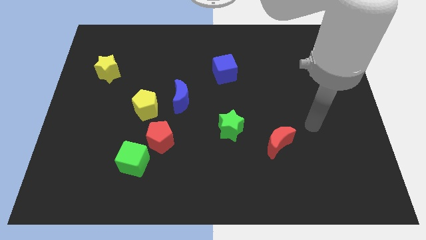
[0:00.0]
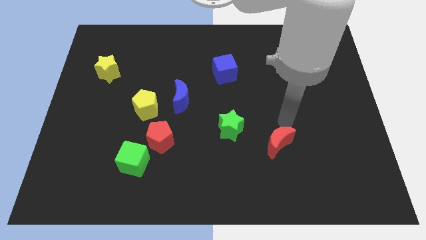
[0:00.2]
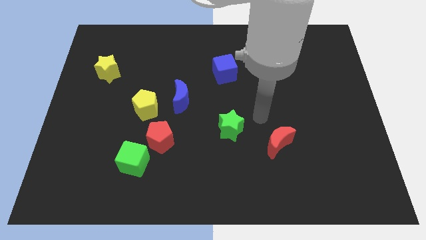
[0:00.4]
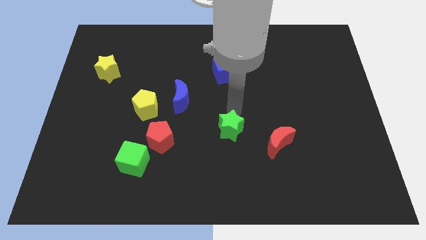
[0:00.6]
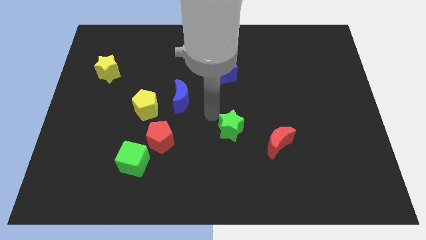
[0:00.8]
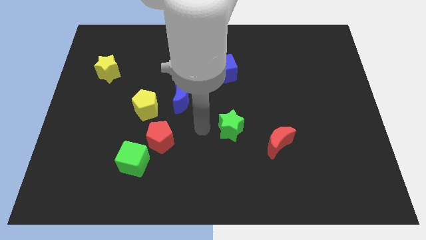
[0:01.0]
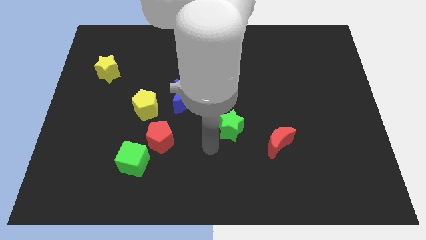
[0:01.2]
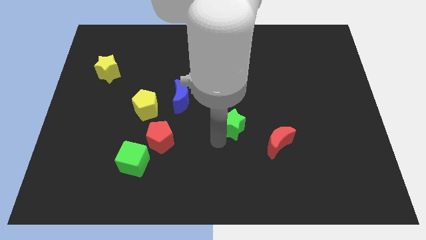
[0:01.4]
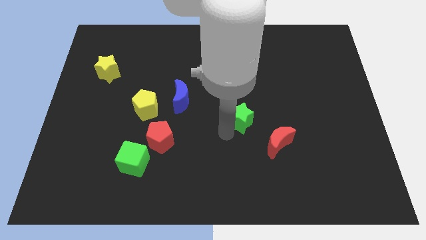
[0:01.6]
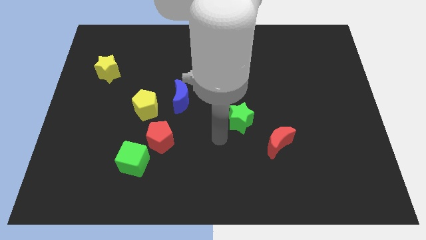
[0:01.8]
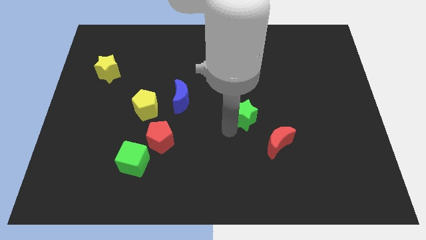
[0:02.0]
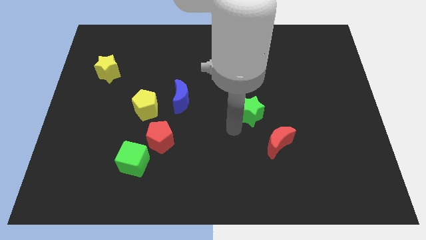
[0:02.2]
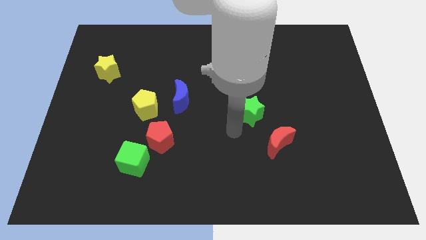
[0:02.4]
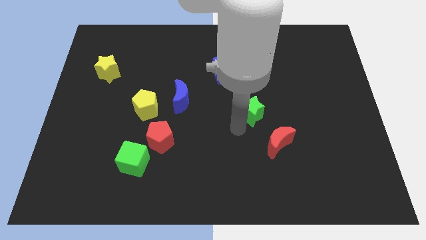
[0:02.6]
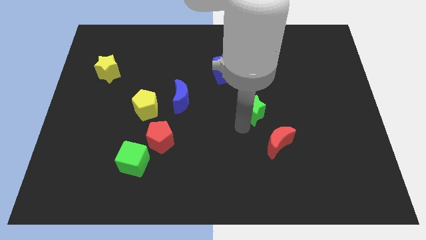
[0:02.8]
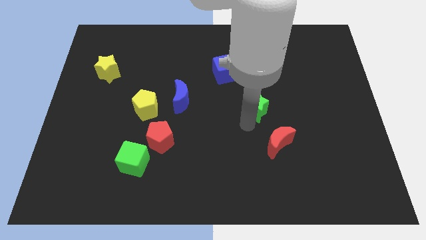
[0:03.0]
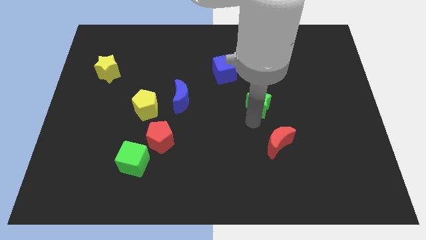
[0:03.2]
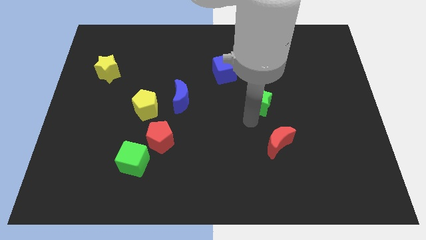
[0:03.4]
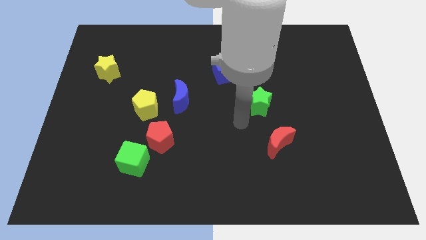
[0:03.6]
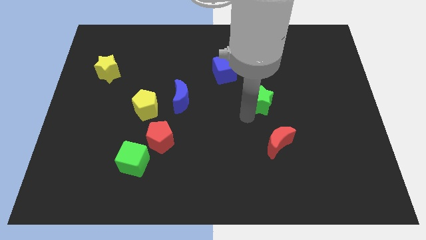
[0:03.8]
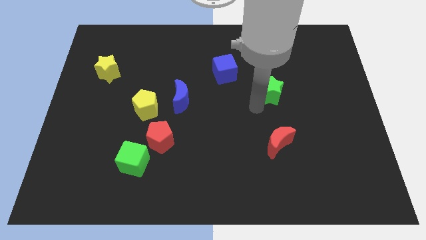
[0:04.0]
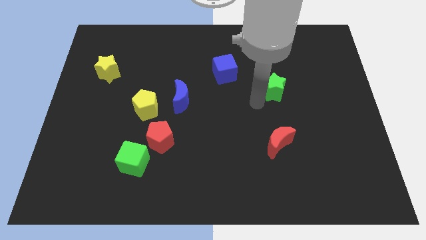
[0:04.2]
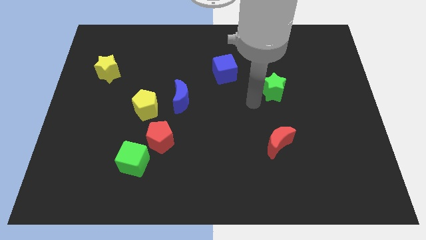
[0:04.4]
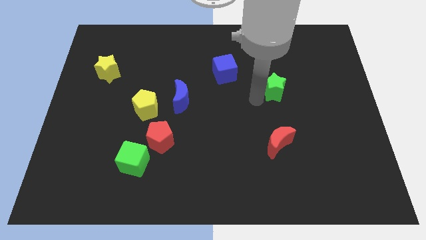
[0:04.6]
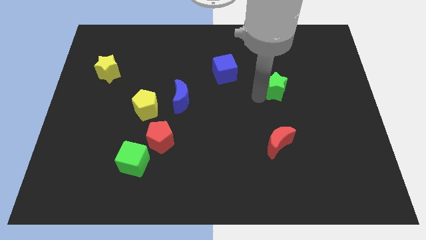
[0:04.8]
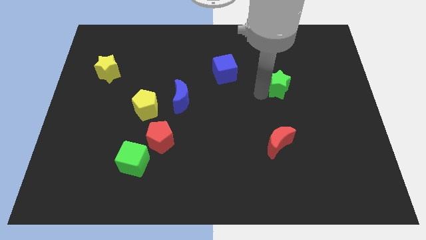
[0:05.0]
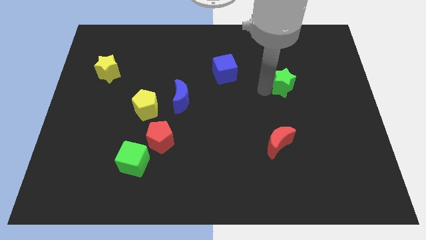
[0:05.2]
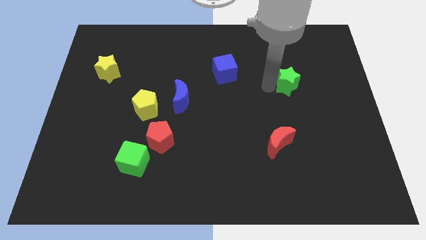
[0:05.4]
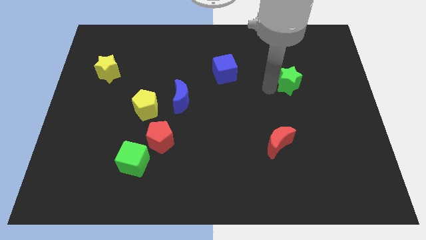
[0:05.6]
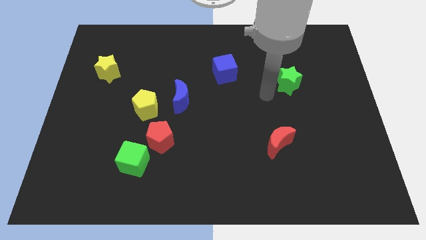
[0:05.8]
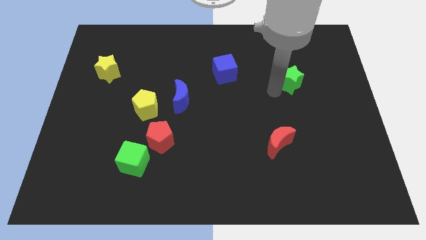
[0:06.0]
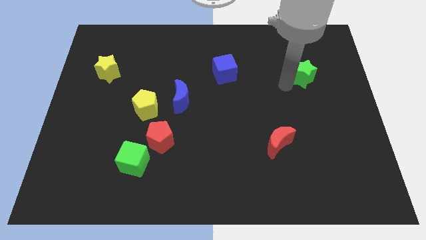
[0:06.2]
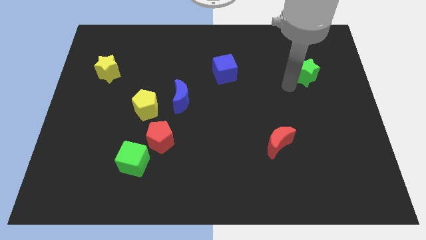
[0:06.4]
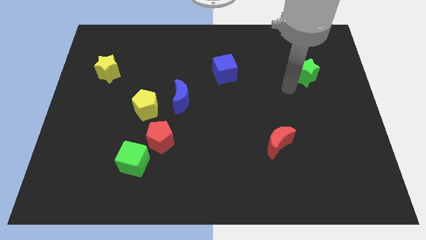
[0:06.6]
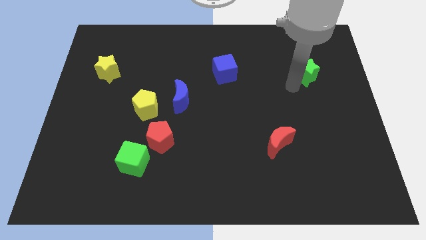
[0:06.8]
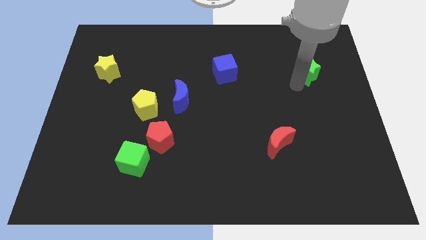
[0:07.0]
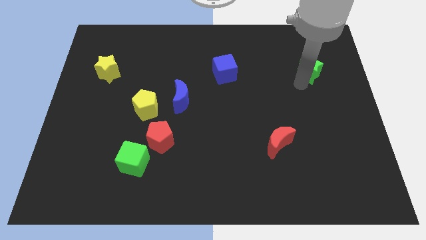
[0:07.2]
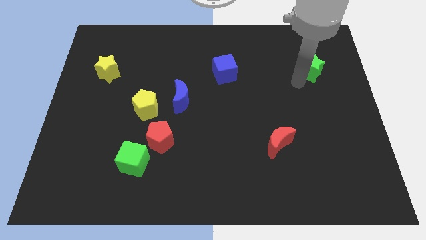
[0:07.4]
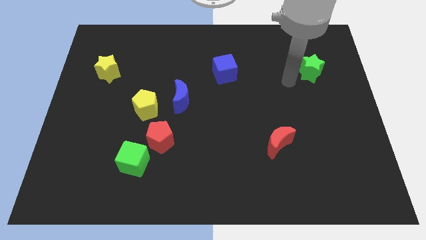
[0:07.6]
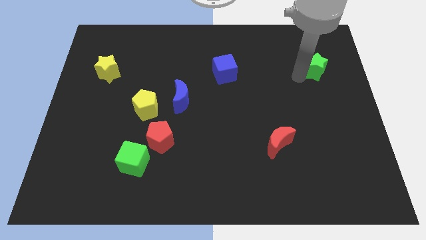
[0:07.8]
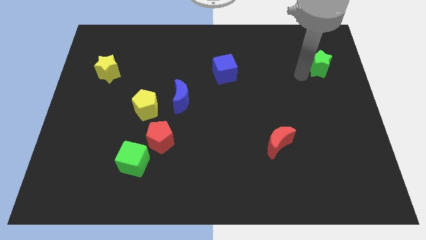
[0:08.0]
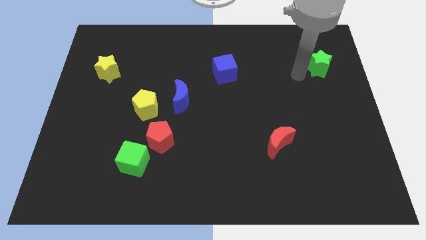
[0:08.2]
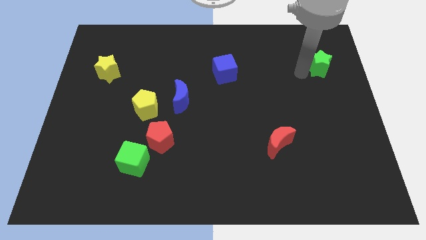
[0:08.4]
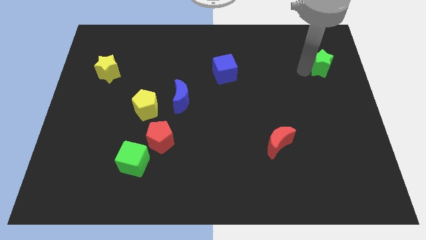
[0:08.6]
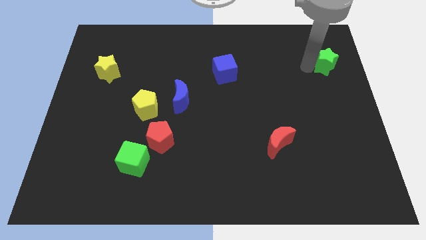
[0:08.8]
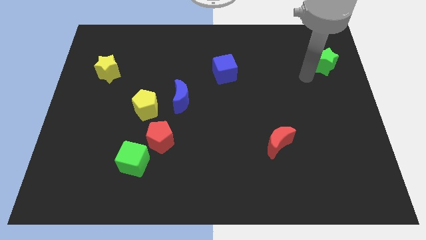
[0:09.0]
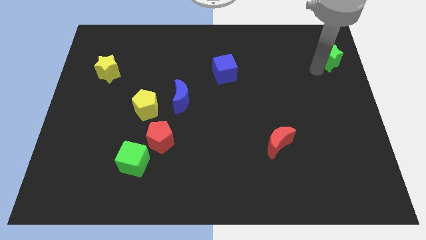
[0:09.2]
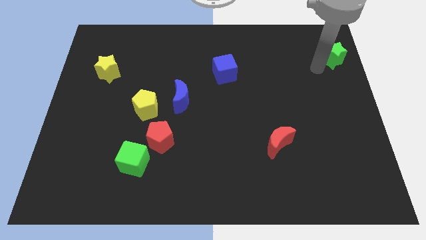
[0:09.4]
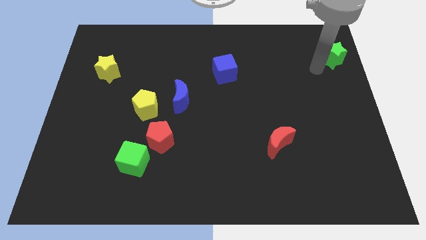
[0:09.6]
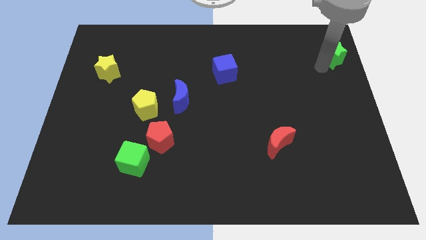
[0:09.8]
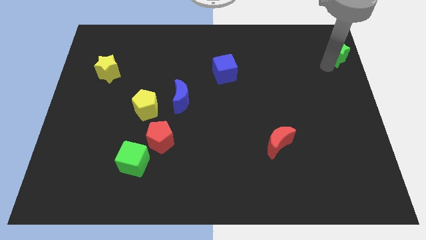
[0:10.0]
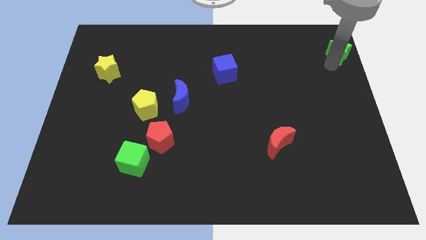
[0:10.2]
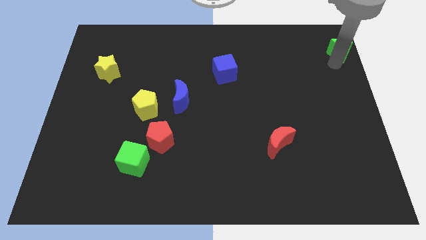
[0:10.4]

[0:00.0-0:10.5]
slide the green star to the top right corner
